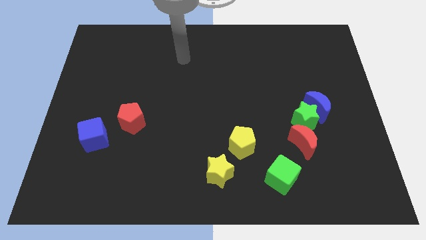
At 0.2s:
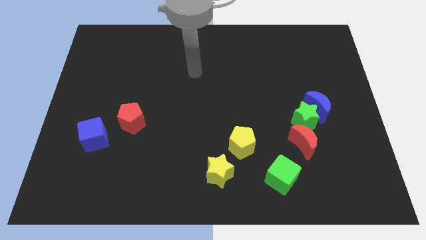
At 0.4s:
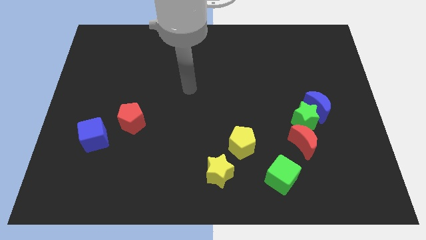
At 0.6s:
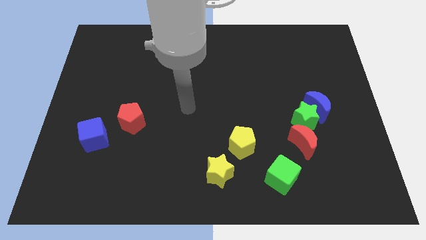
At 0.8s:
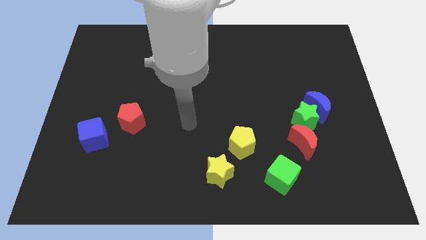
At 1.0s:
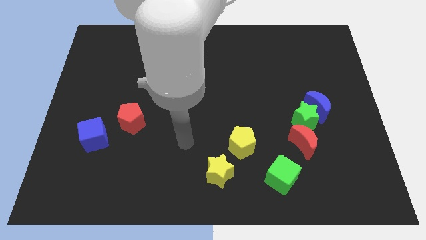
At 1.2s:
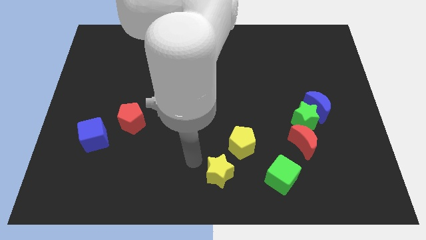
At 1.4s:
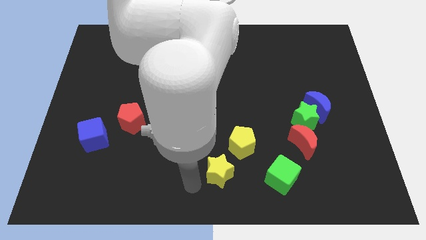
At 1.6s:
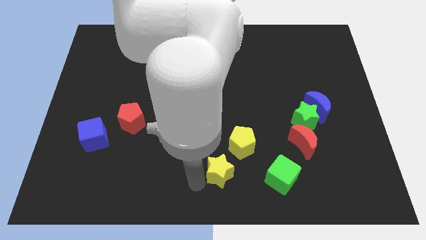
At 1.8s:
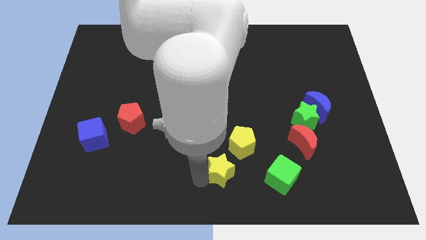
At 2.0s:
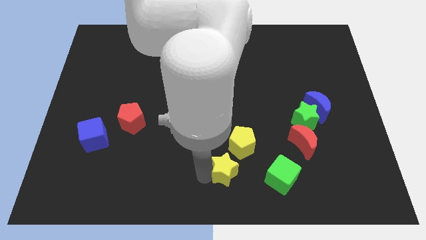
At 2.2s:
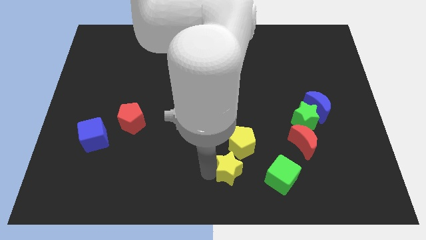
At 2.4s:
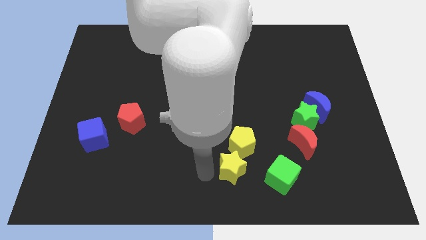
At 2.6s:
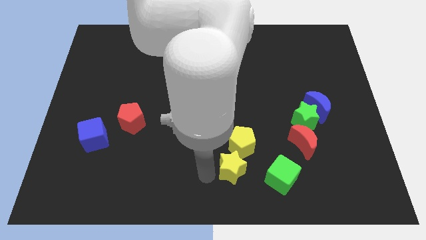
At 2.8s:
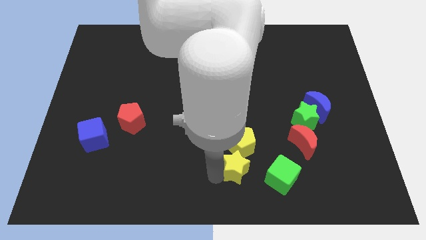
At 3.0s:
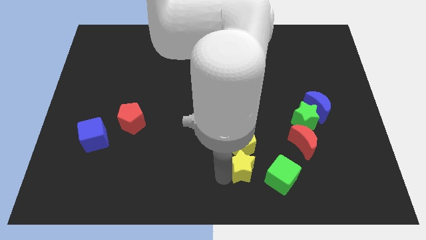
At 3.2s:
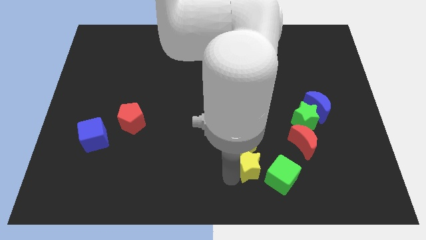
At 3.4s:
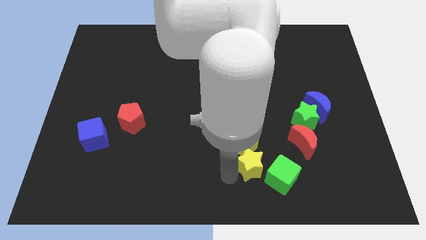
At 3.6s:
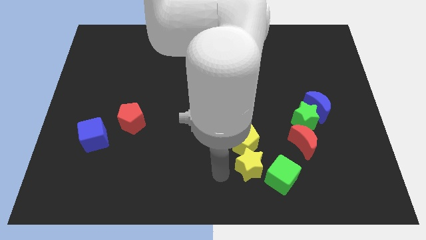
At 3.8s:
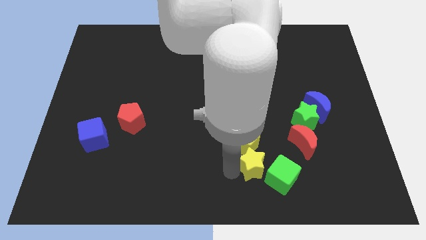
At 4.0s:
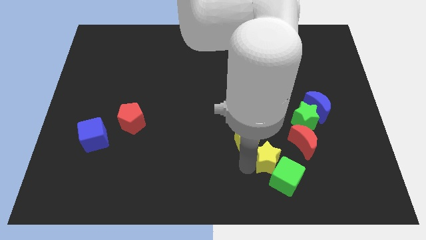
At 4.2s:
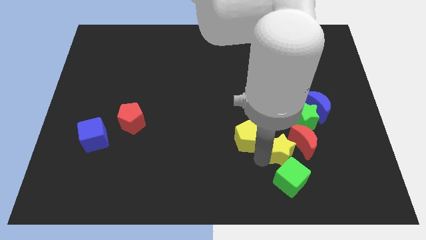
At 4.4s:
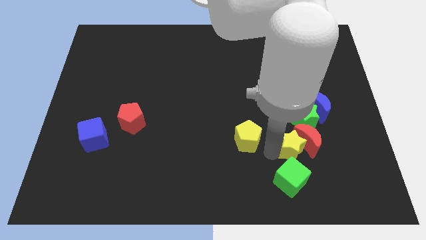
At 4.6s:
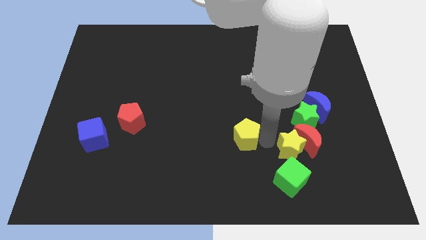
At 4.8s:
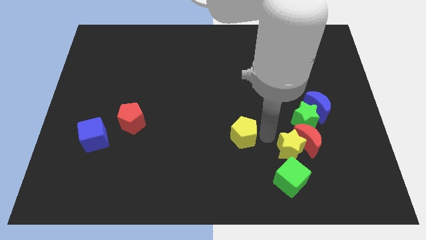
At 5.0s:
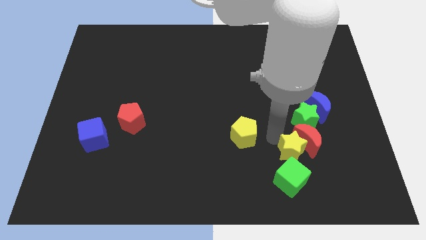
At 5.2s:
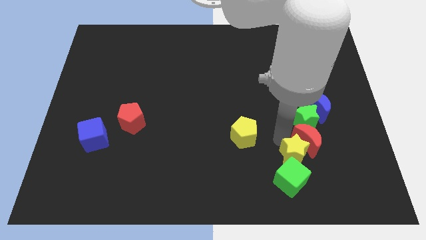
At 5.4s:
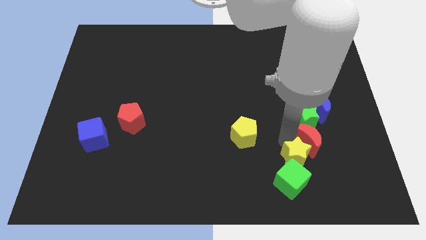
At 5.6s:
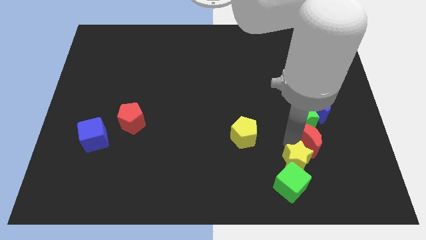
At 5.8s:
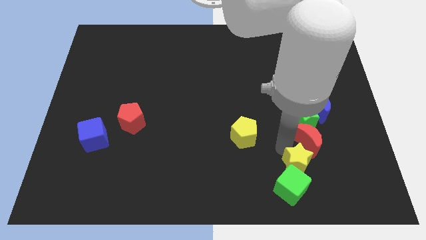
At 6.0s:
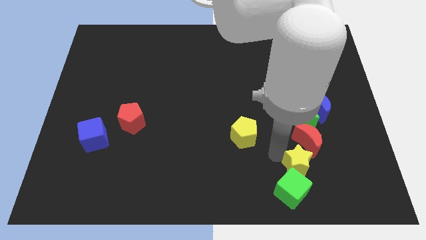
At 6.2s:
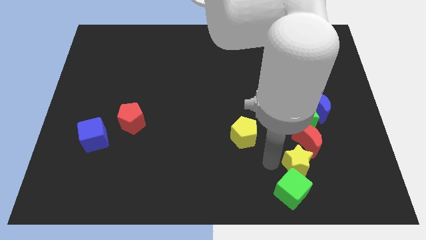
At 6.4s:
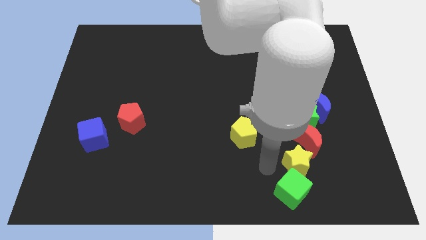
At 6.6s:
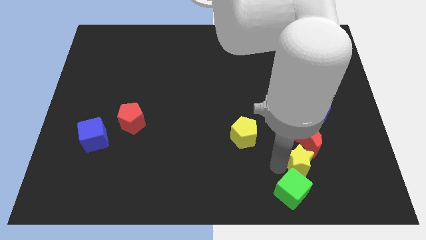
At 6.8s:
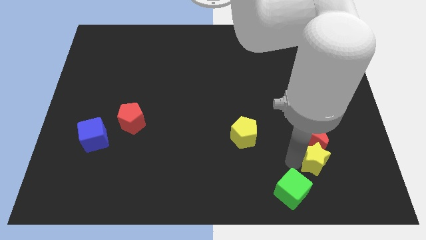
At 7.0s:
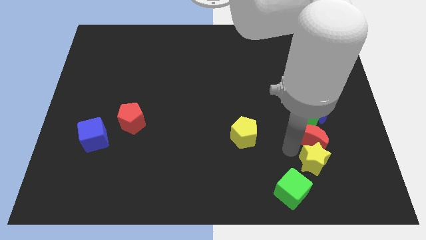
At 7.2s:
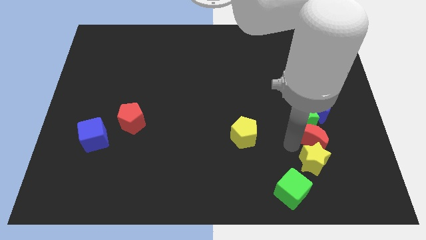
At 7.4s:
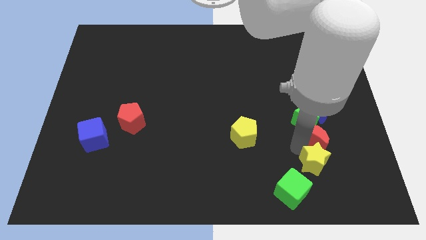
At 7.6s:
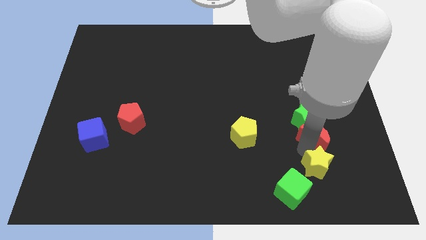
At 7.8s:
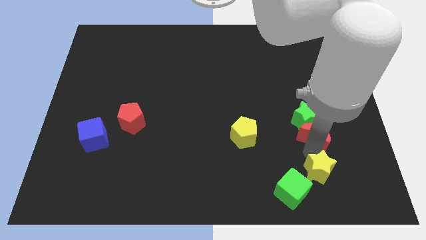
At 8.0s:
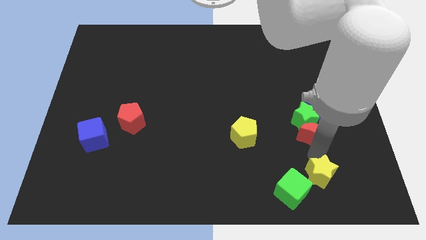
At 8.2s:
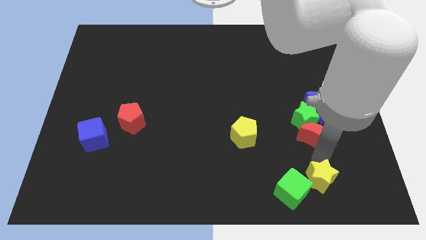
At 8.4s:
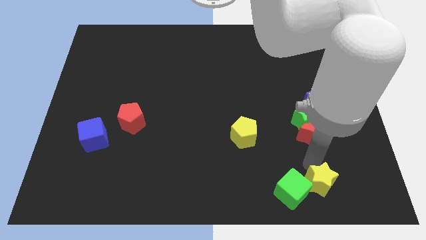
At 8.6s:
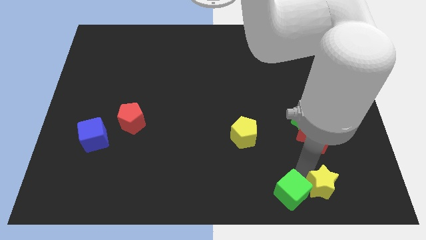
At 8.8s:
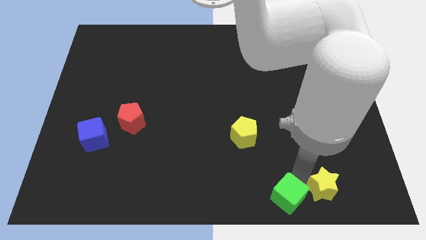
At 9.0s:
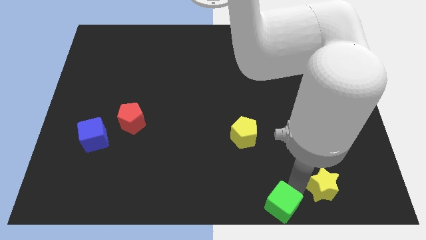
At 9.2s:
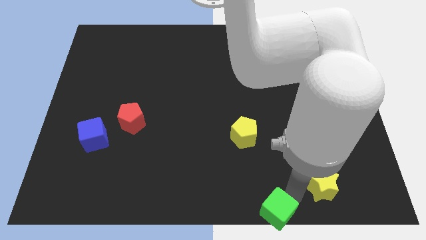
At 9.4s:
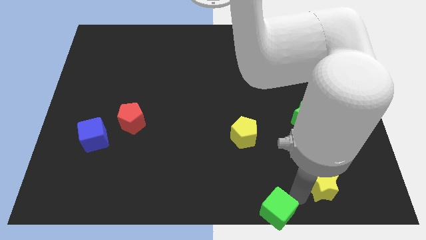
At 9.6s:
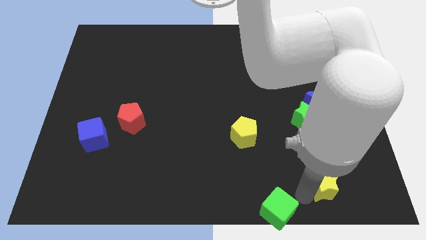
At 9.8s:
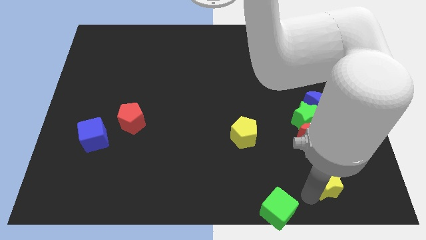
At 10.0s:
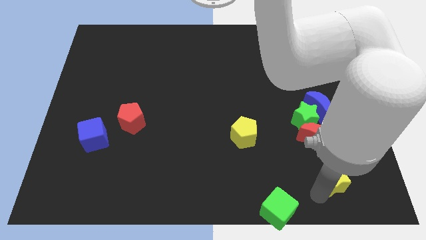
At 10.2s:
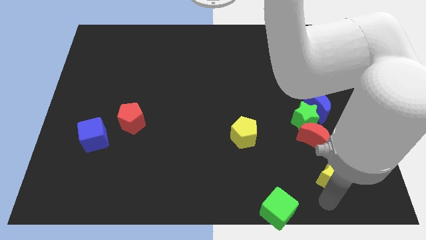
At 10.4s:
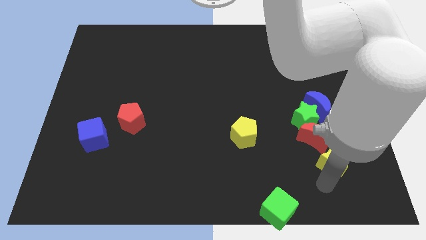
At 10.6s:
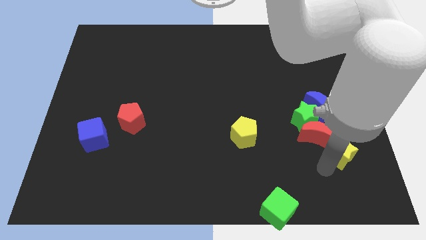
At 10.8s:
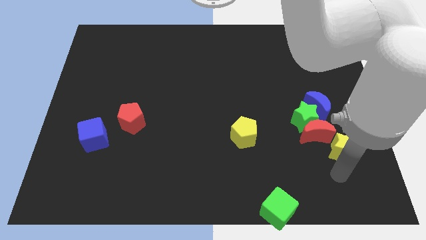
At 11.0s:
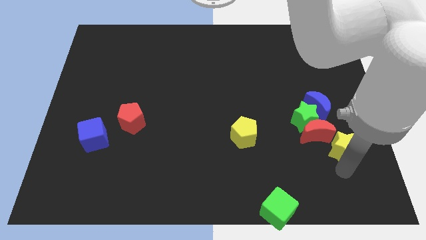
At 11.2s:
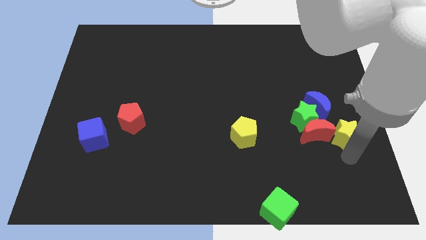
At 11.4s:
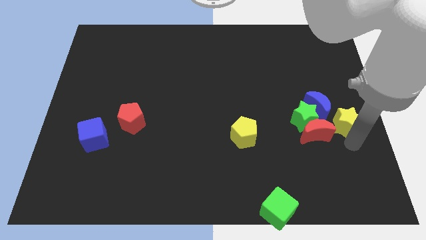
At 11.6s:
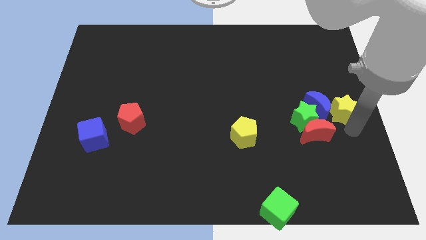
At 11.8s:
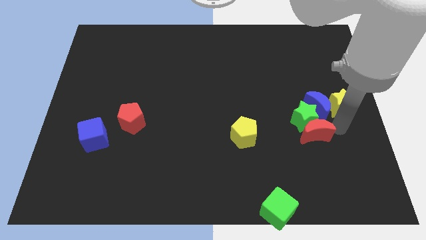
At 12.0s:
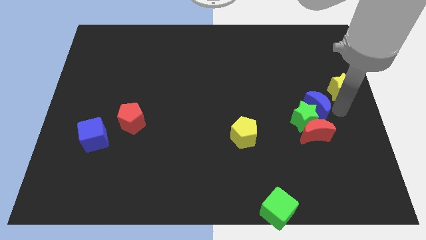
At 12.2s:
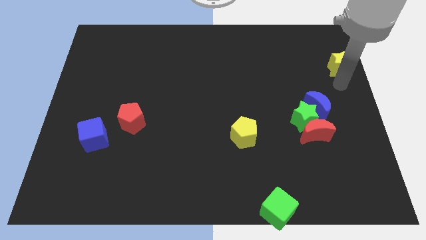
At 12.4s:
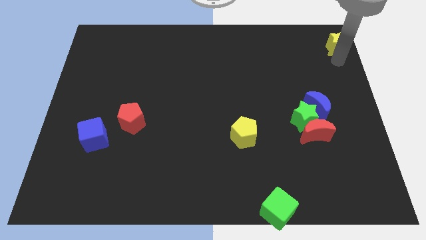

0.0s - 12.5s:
push the yellow star to the top right corner
